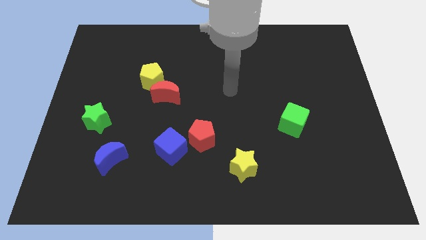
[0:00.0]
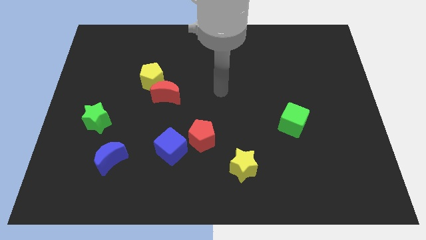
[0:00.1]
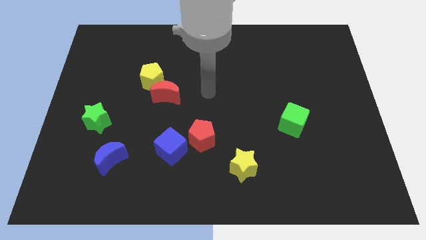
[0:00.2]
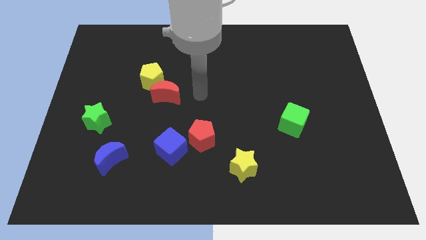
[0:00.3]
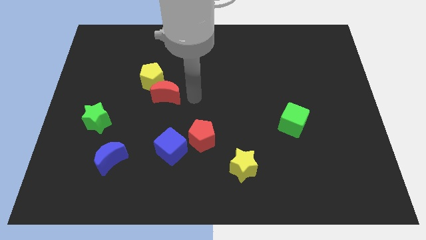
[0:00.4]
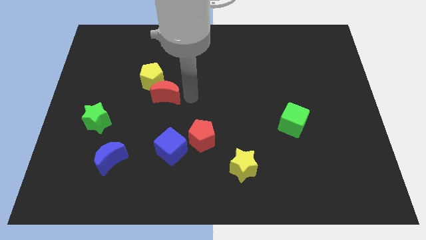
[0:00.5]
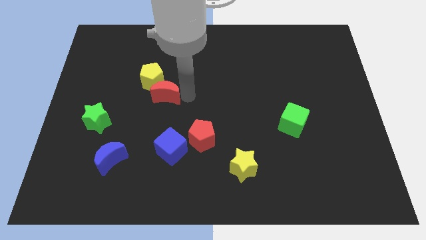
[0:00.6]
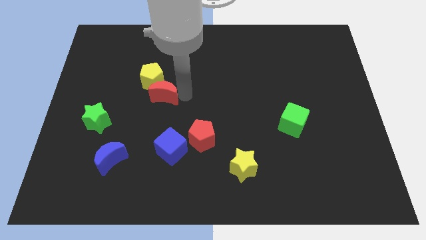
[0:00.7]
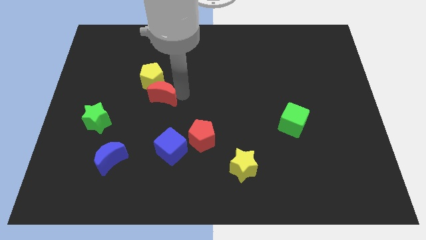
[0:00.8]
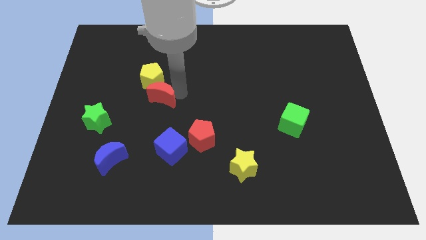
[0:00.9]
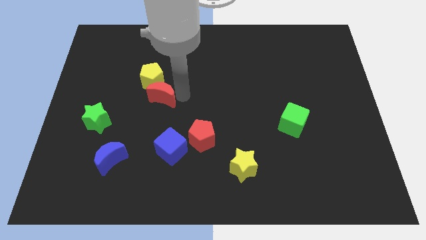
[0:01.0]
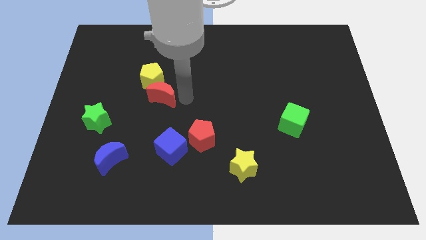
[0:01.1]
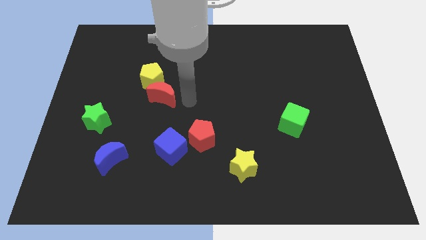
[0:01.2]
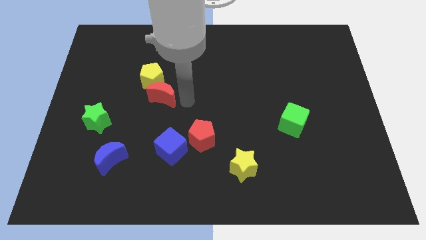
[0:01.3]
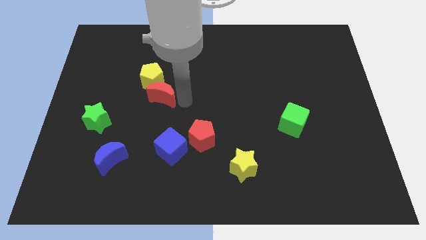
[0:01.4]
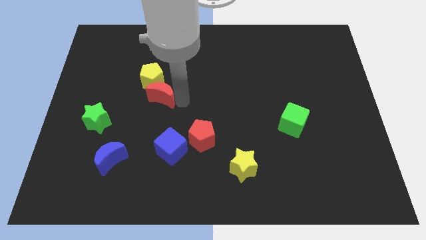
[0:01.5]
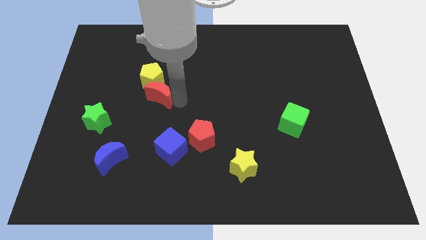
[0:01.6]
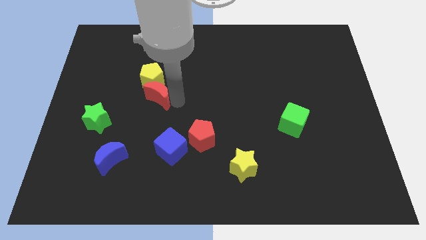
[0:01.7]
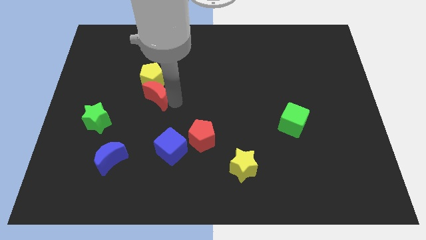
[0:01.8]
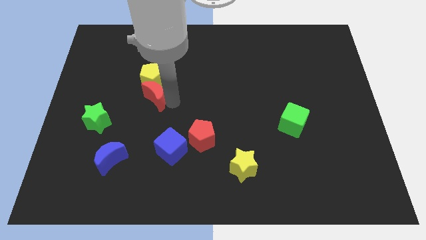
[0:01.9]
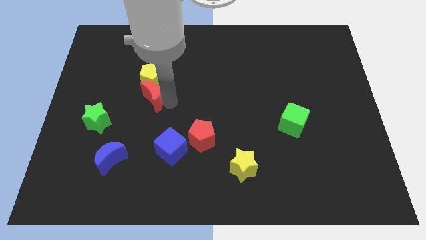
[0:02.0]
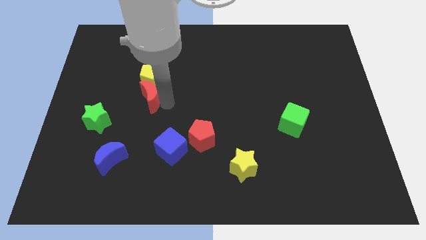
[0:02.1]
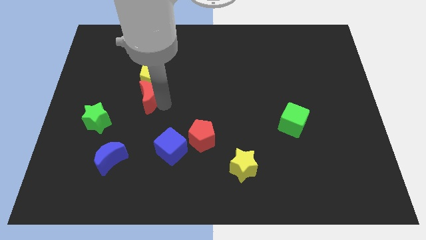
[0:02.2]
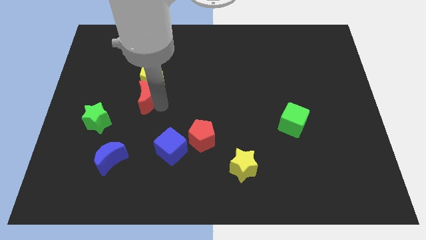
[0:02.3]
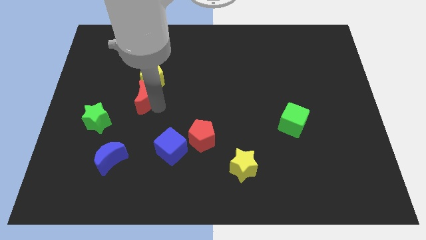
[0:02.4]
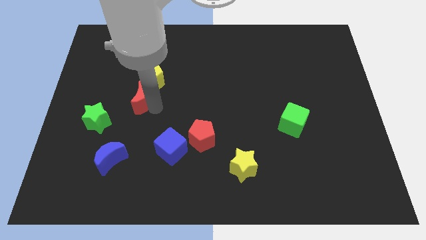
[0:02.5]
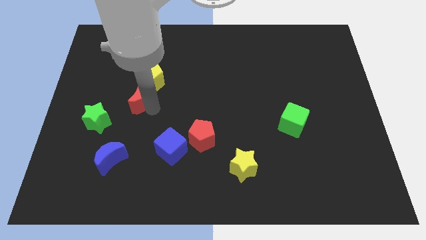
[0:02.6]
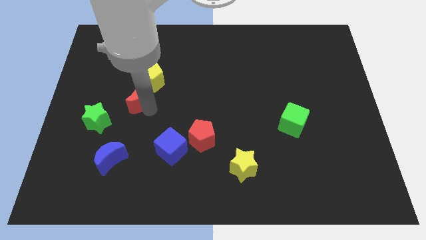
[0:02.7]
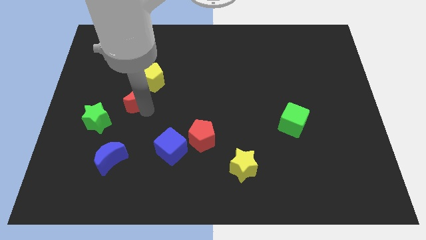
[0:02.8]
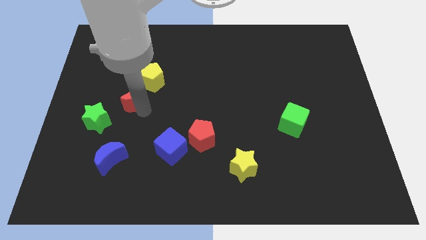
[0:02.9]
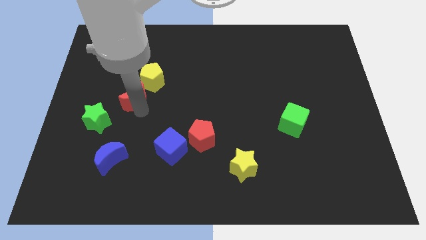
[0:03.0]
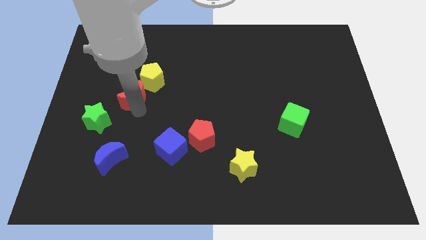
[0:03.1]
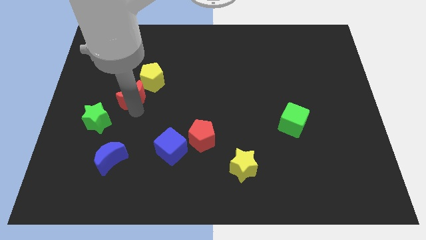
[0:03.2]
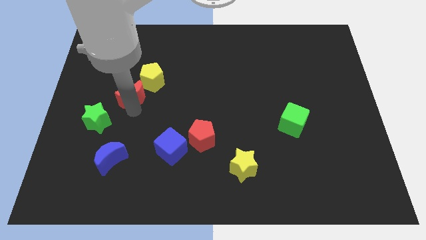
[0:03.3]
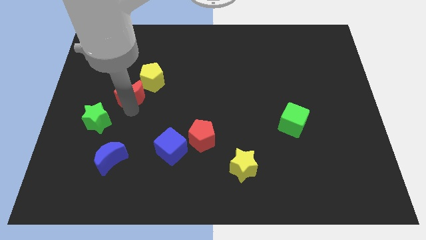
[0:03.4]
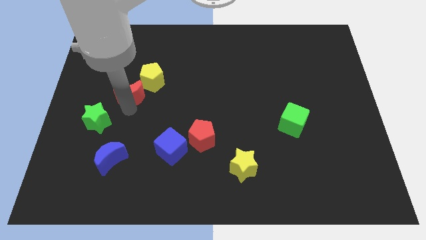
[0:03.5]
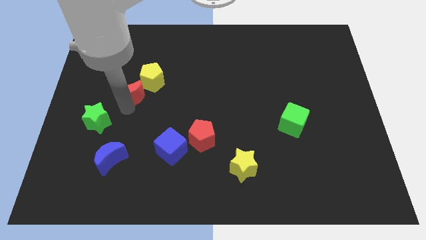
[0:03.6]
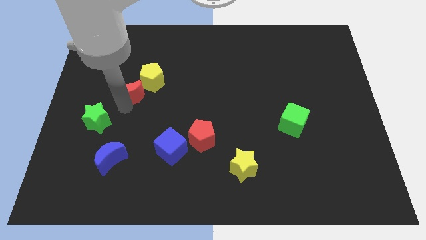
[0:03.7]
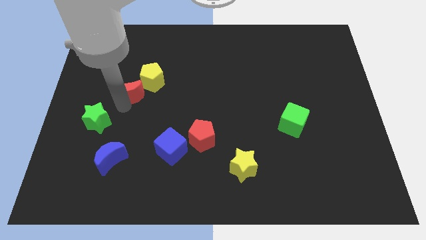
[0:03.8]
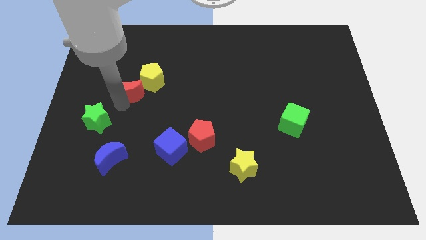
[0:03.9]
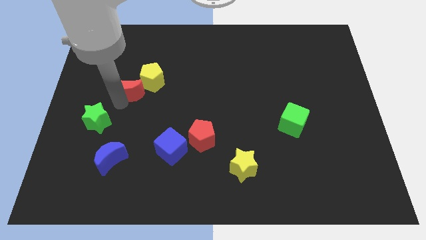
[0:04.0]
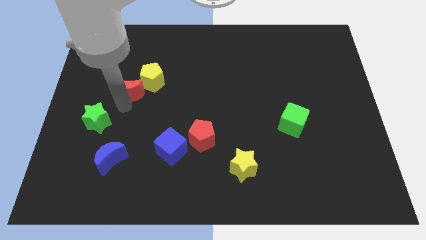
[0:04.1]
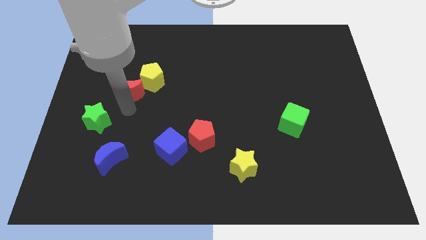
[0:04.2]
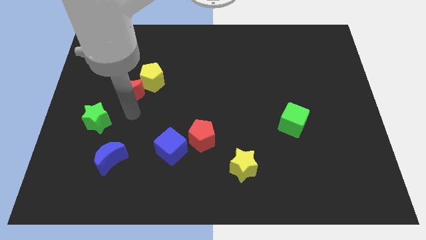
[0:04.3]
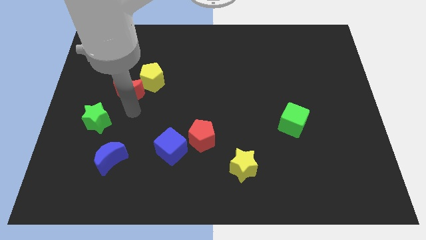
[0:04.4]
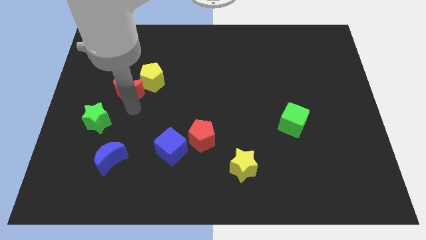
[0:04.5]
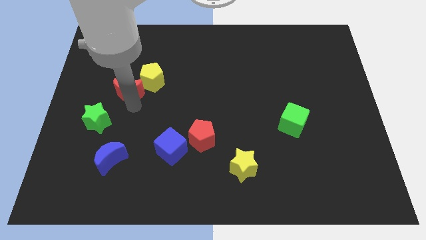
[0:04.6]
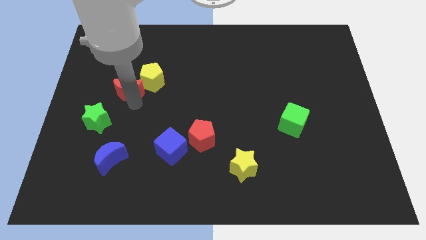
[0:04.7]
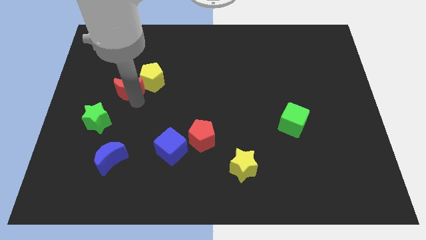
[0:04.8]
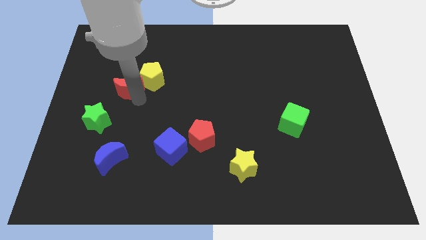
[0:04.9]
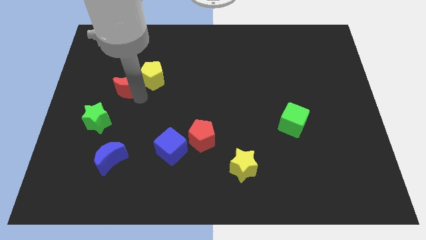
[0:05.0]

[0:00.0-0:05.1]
push the red moon a bit up and then left

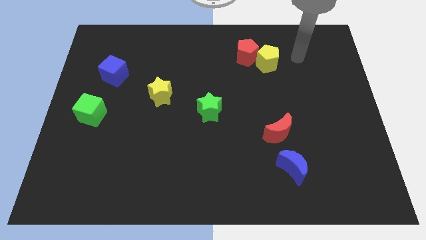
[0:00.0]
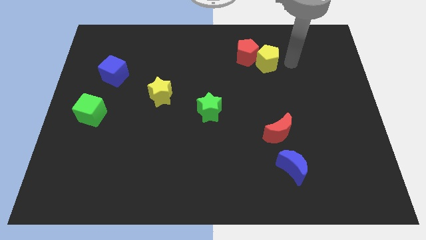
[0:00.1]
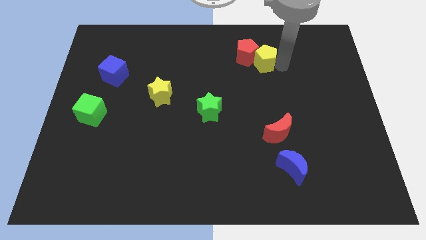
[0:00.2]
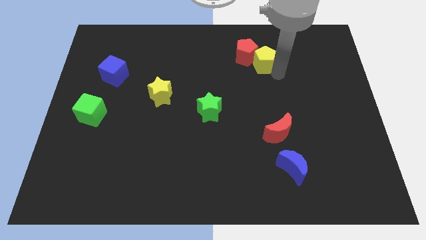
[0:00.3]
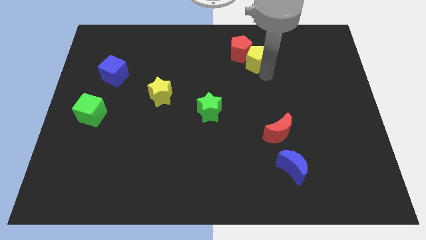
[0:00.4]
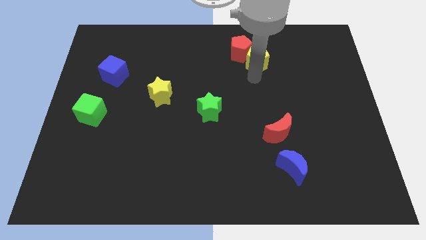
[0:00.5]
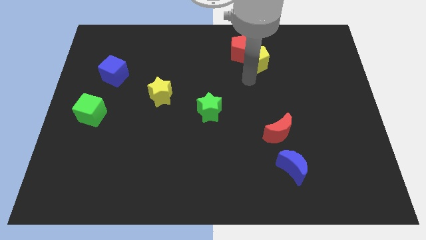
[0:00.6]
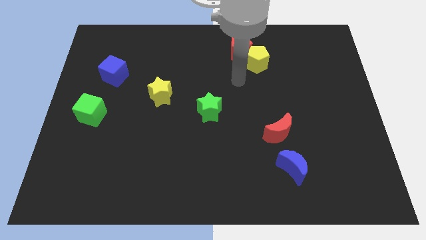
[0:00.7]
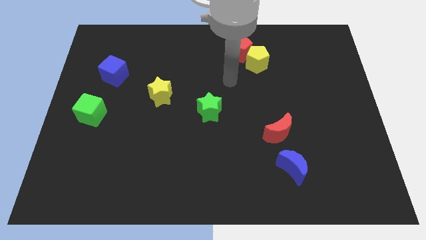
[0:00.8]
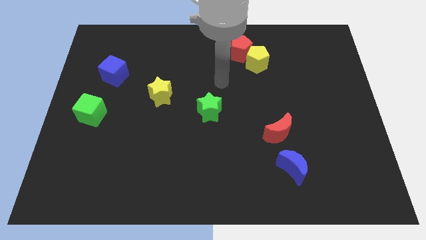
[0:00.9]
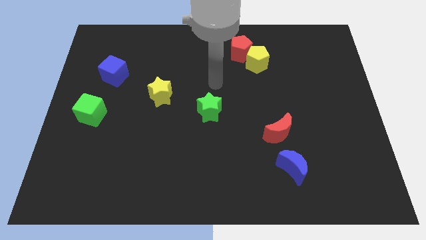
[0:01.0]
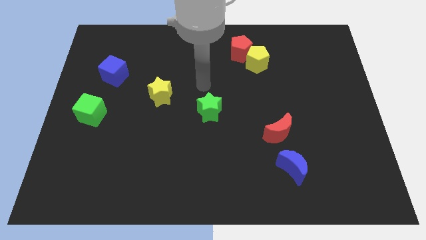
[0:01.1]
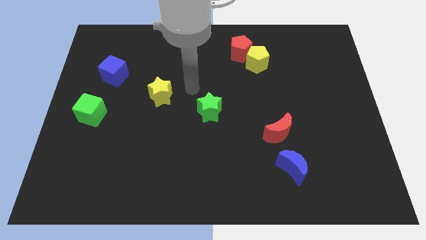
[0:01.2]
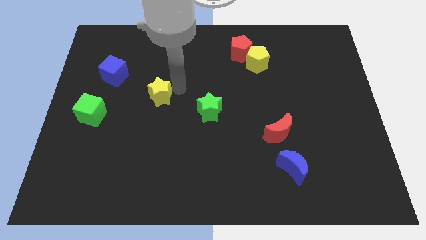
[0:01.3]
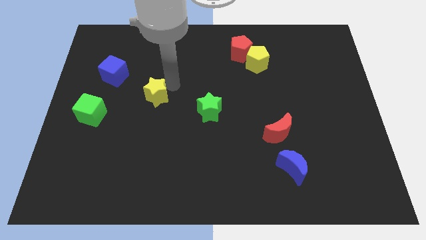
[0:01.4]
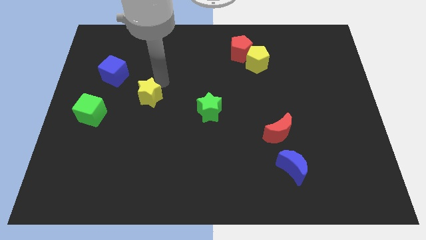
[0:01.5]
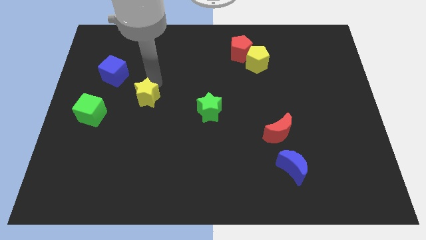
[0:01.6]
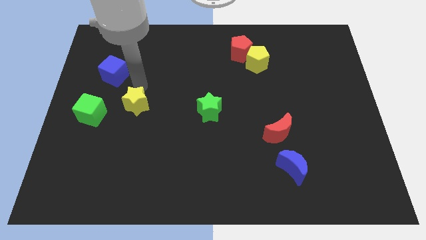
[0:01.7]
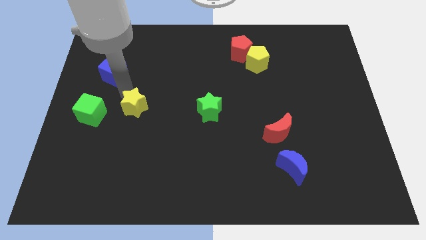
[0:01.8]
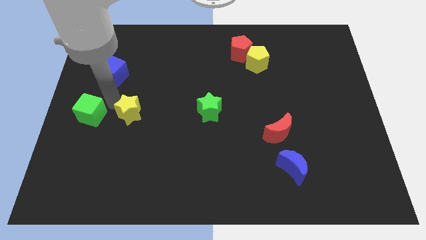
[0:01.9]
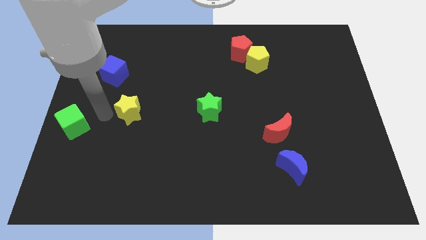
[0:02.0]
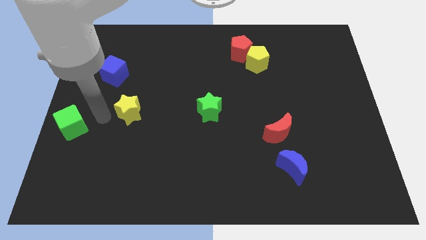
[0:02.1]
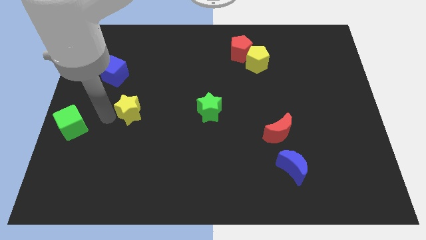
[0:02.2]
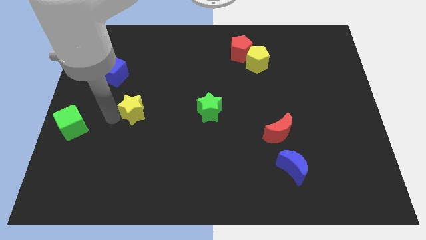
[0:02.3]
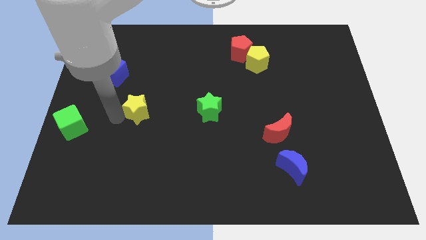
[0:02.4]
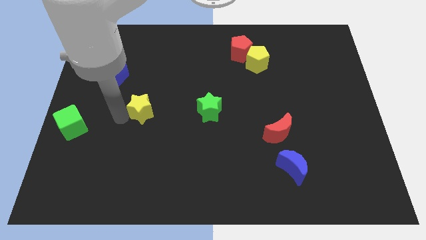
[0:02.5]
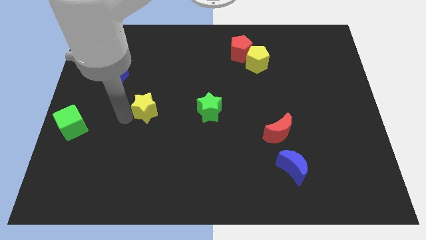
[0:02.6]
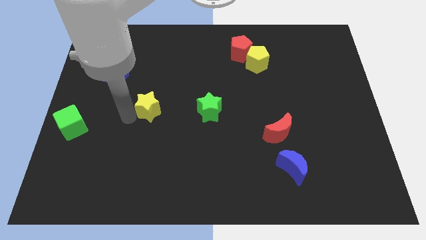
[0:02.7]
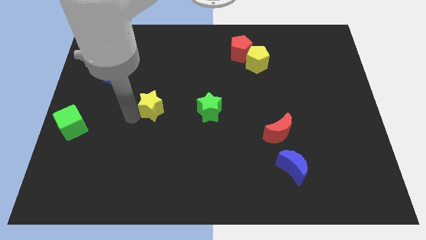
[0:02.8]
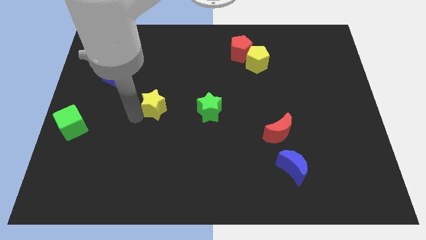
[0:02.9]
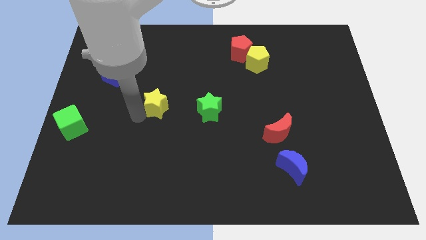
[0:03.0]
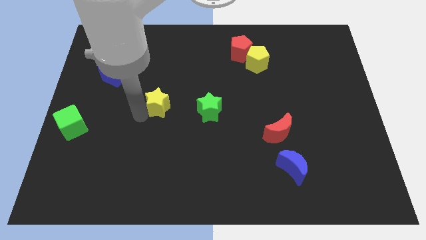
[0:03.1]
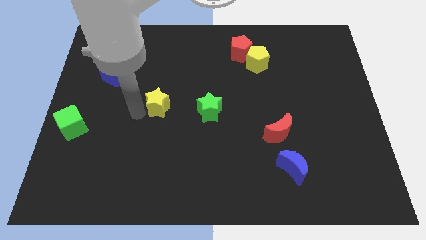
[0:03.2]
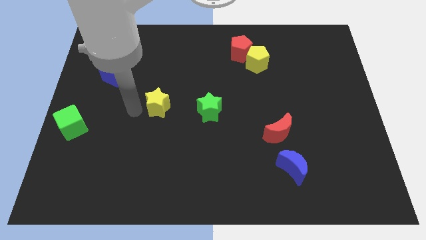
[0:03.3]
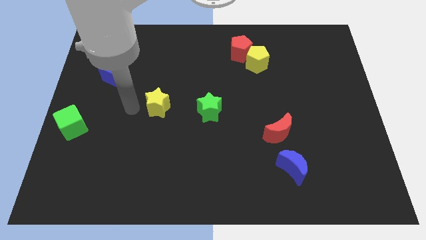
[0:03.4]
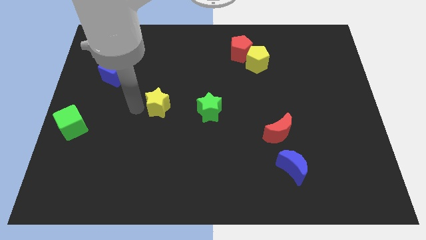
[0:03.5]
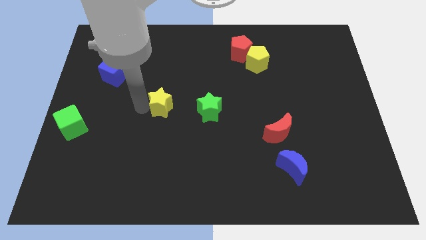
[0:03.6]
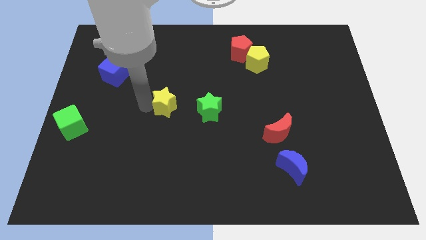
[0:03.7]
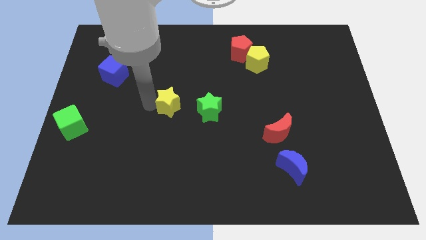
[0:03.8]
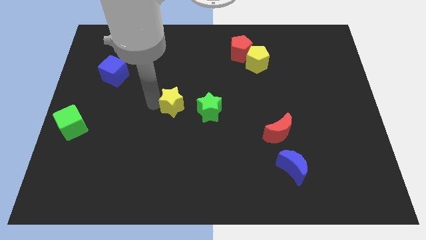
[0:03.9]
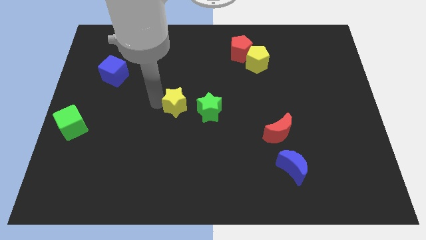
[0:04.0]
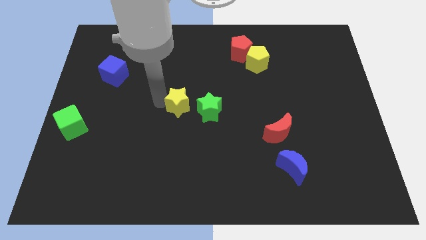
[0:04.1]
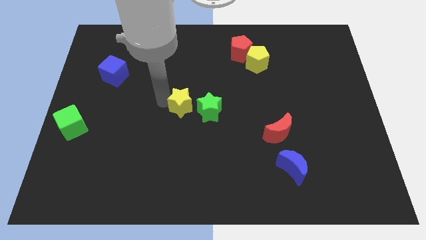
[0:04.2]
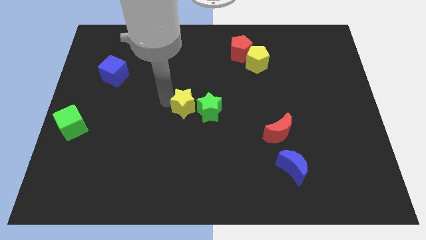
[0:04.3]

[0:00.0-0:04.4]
move the yellow star downwards and right a little bit
